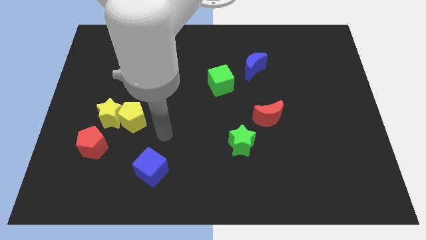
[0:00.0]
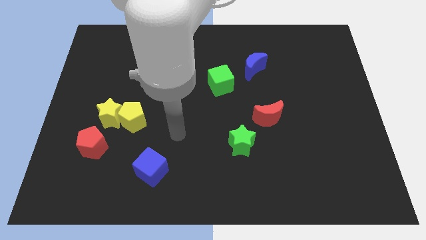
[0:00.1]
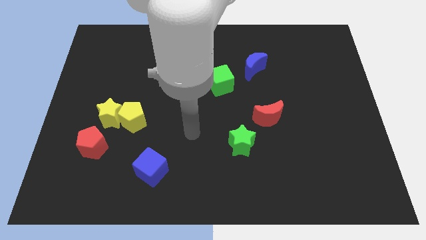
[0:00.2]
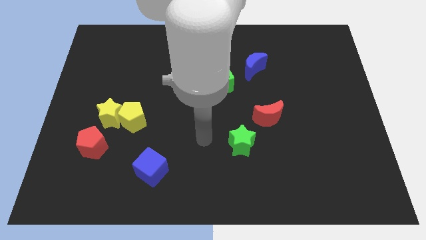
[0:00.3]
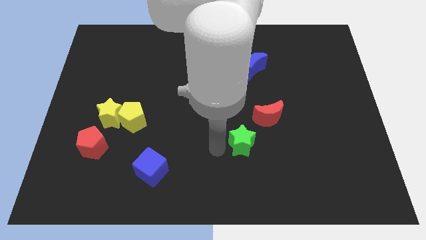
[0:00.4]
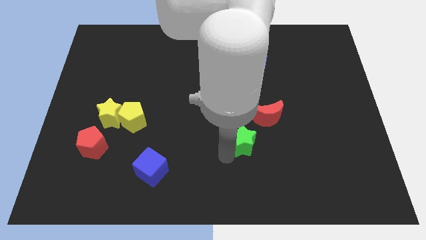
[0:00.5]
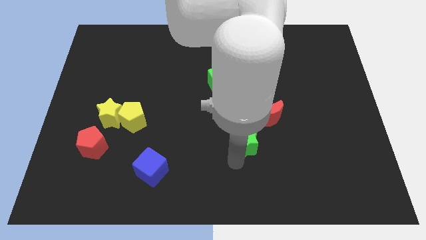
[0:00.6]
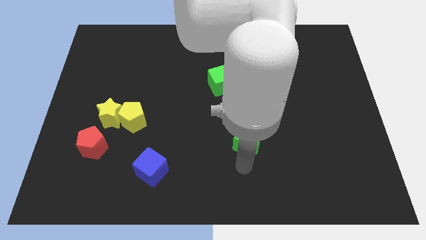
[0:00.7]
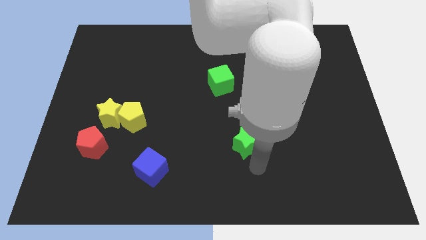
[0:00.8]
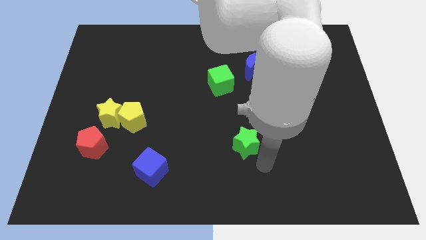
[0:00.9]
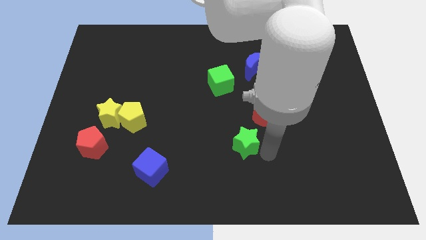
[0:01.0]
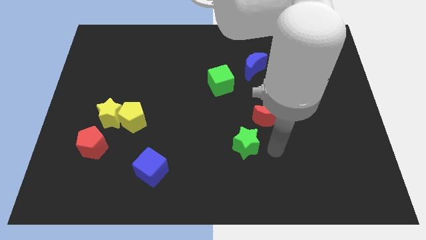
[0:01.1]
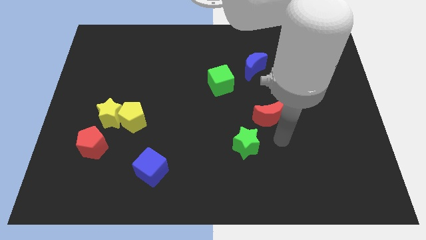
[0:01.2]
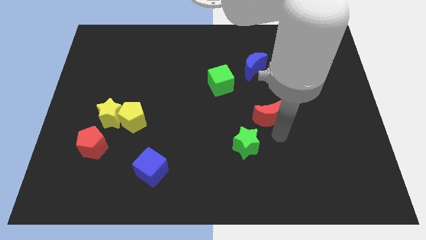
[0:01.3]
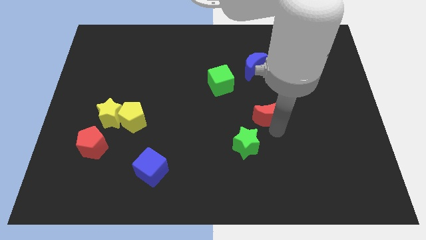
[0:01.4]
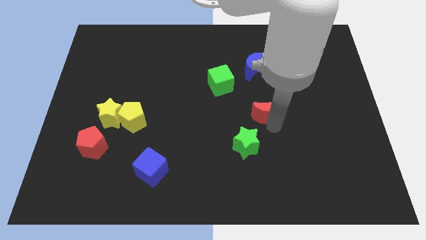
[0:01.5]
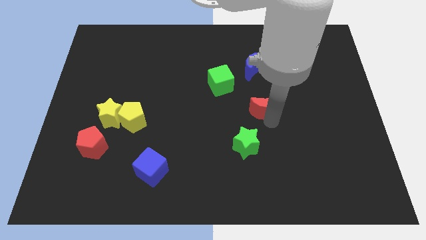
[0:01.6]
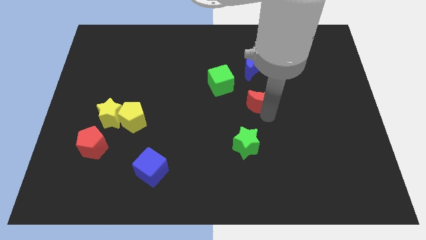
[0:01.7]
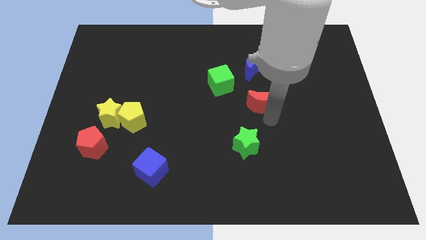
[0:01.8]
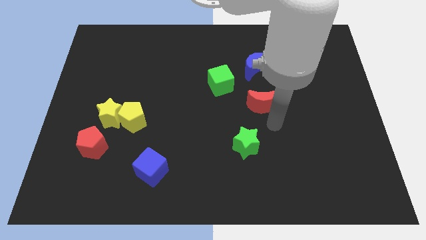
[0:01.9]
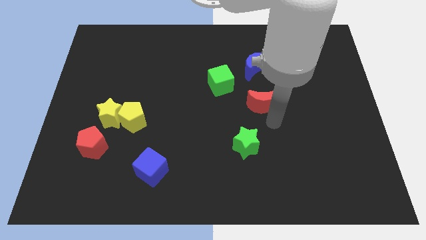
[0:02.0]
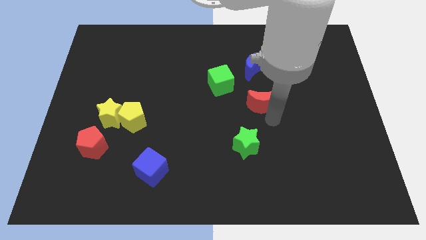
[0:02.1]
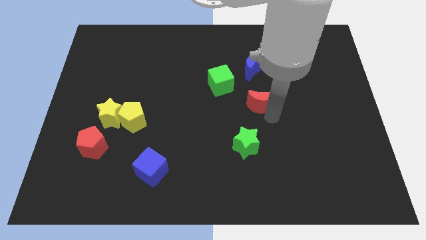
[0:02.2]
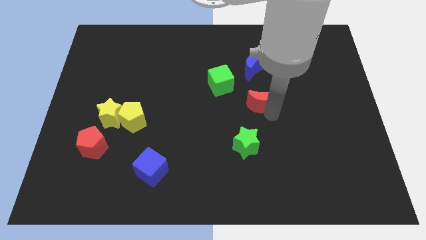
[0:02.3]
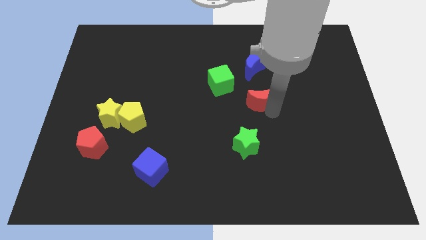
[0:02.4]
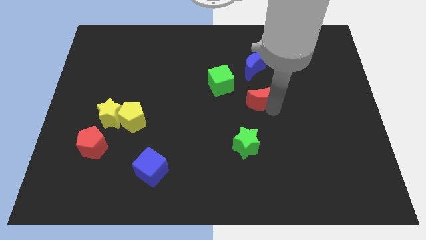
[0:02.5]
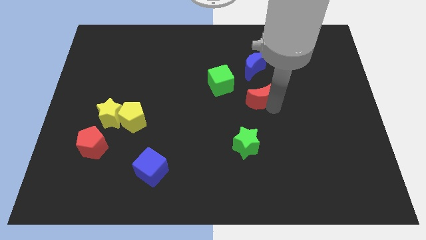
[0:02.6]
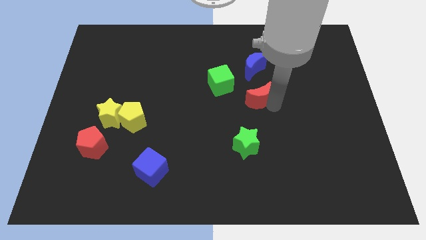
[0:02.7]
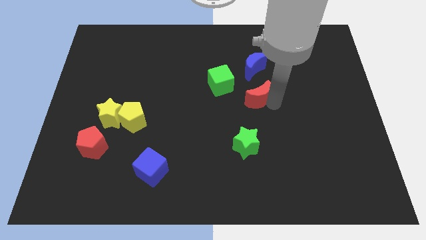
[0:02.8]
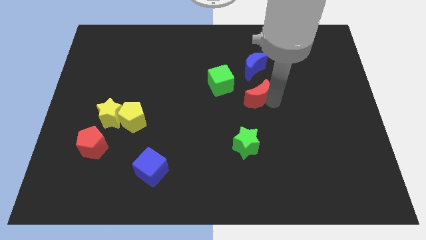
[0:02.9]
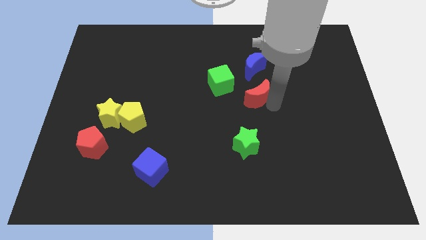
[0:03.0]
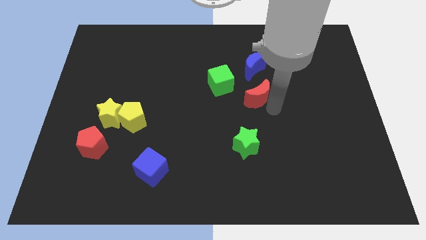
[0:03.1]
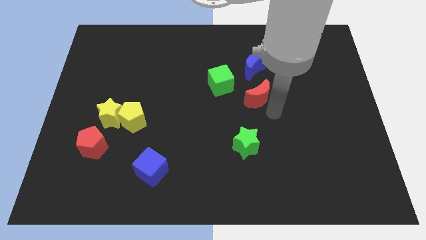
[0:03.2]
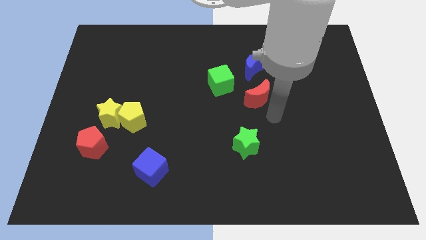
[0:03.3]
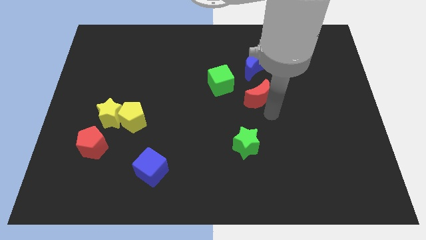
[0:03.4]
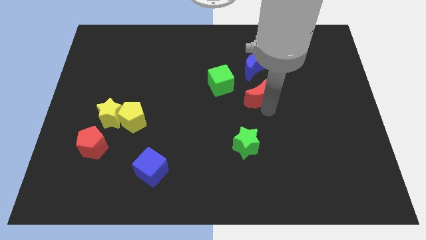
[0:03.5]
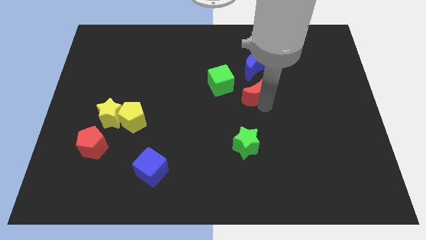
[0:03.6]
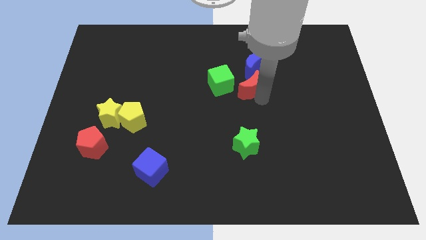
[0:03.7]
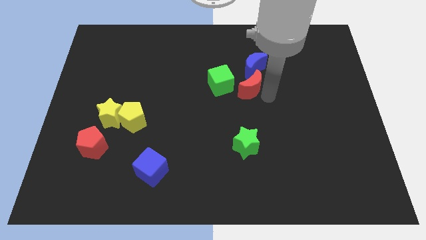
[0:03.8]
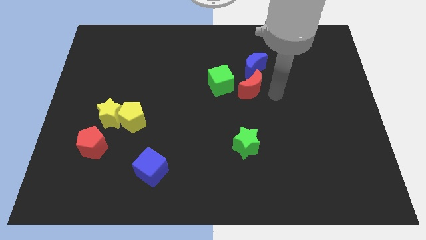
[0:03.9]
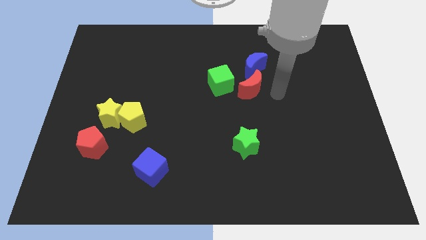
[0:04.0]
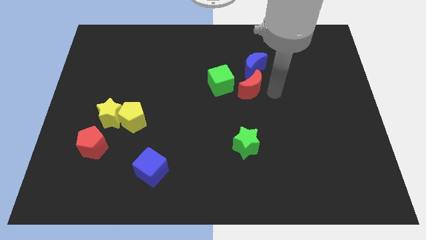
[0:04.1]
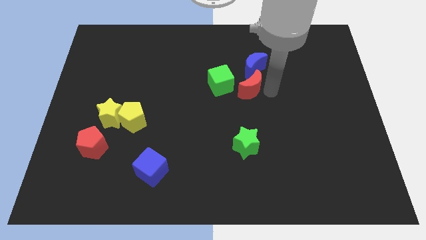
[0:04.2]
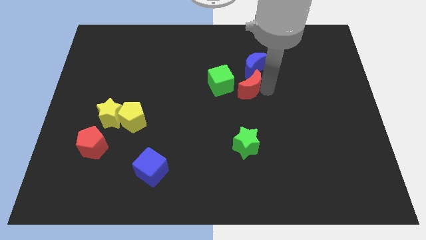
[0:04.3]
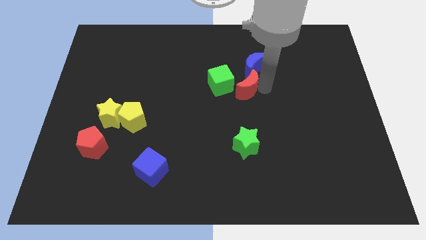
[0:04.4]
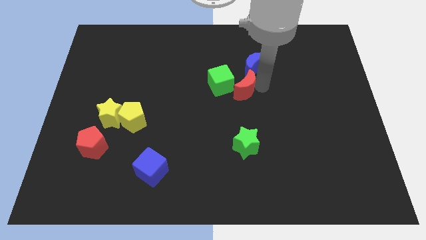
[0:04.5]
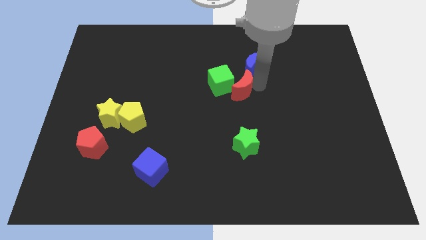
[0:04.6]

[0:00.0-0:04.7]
push the red moon to the green cube

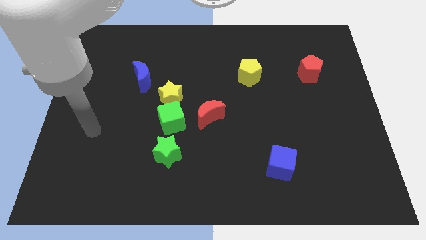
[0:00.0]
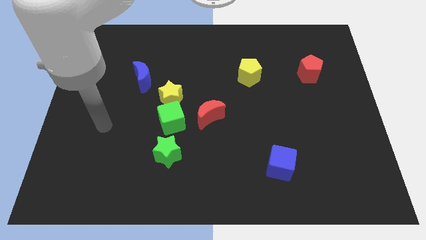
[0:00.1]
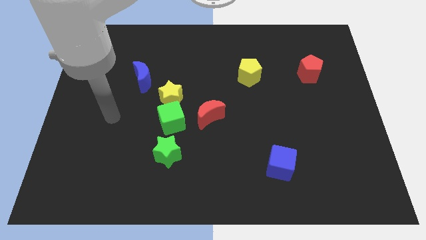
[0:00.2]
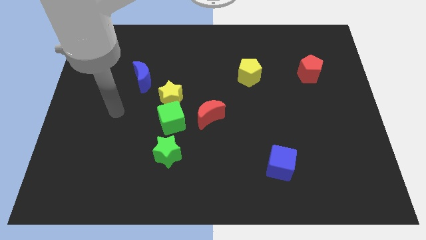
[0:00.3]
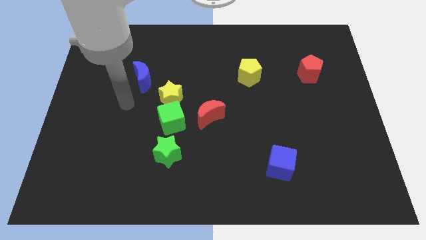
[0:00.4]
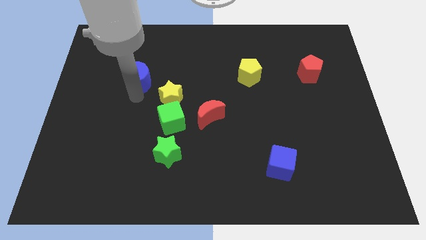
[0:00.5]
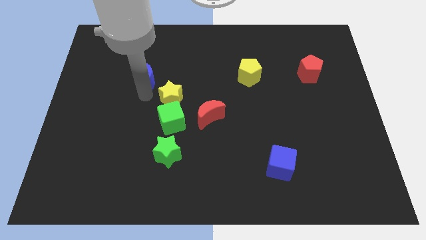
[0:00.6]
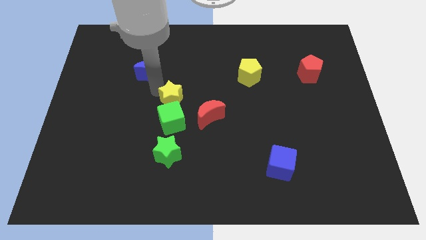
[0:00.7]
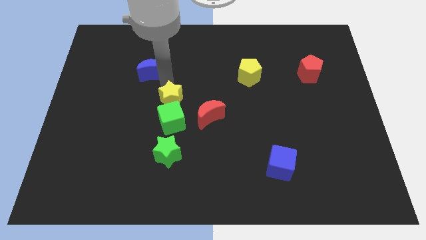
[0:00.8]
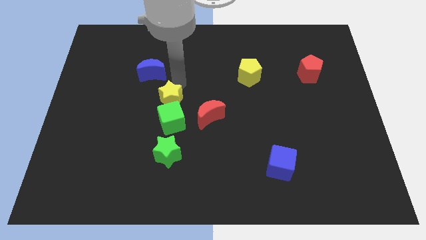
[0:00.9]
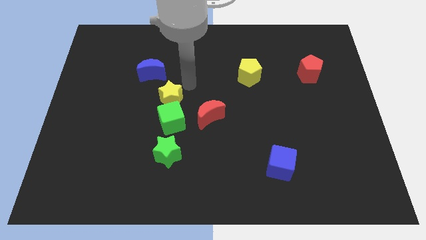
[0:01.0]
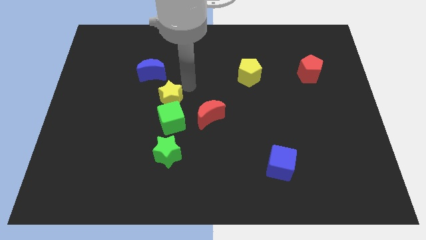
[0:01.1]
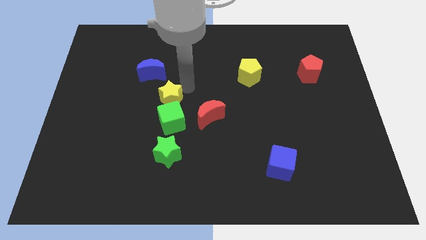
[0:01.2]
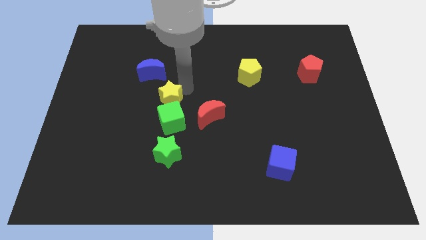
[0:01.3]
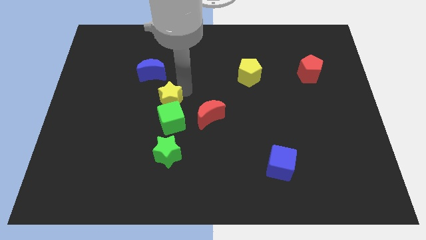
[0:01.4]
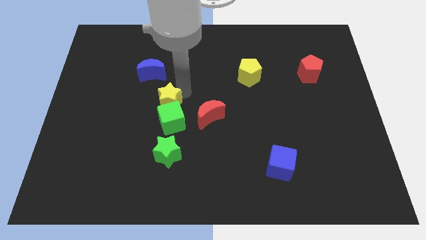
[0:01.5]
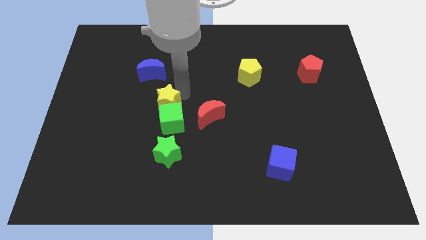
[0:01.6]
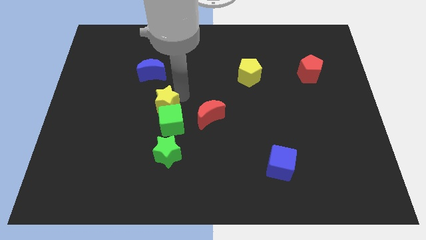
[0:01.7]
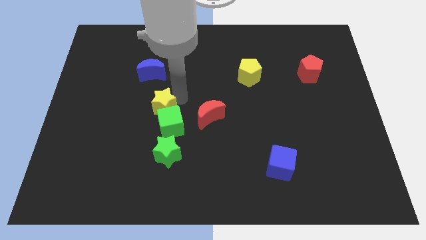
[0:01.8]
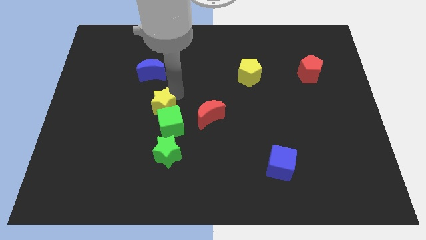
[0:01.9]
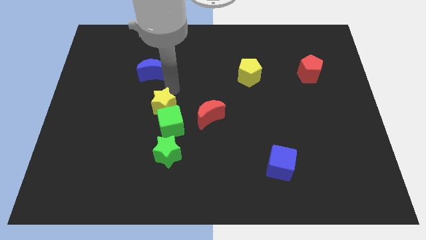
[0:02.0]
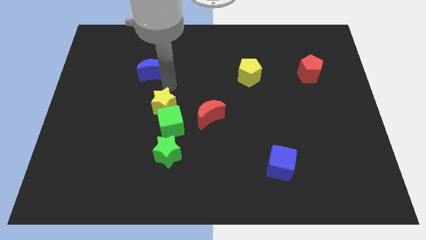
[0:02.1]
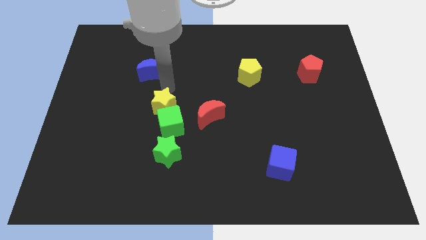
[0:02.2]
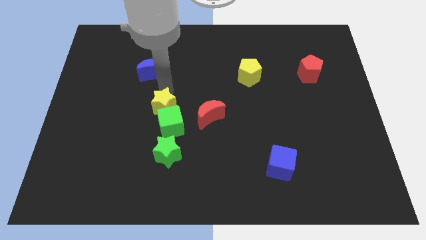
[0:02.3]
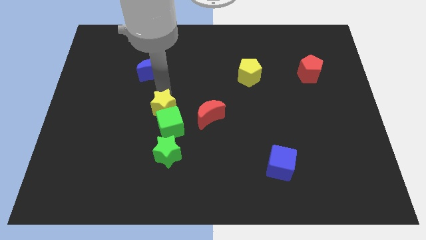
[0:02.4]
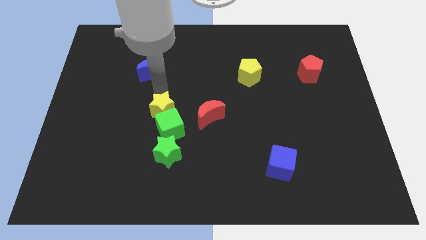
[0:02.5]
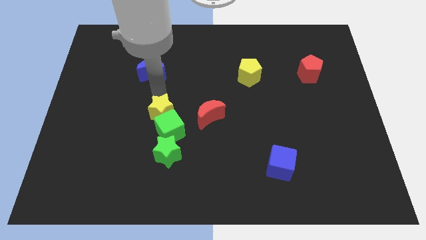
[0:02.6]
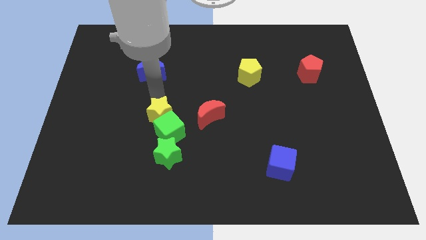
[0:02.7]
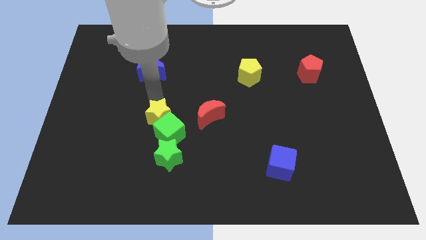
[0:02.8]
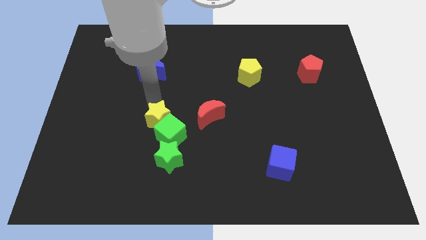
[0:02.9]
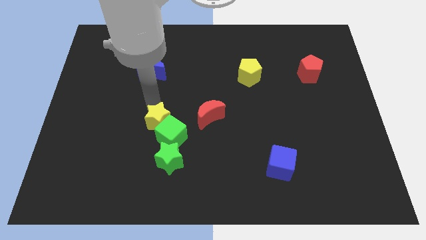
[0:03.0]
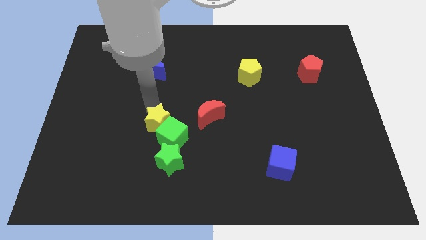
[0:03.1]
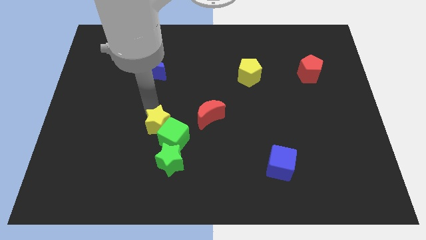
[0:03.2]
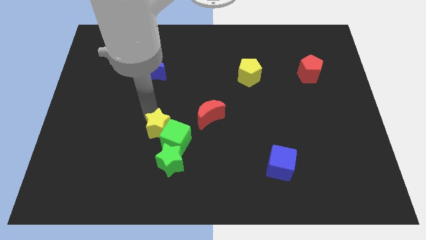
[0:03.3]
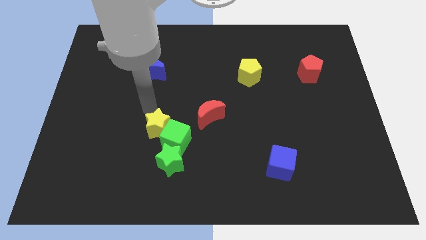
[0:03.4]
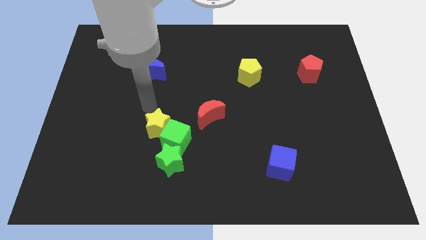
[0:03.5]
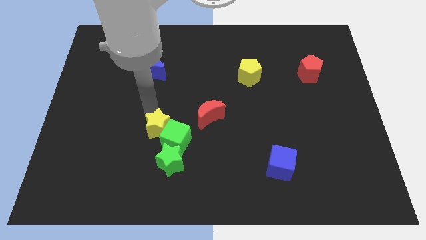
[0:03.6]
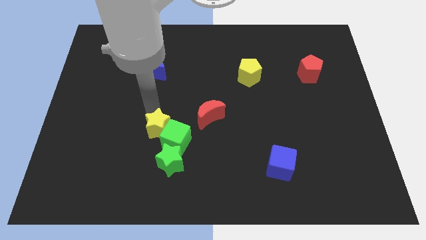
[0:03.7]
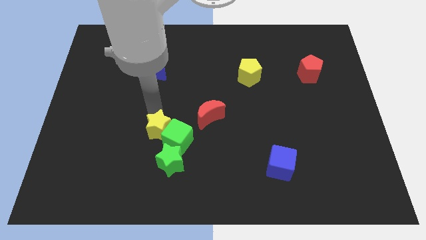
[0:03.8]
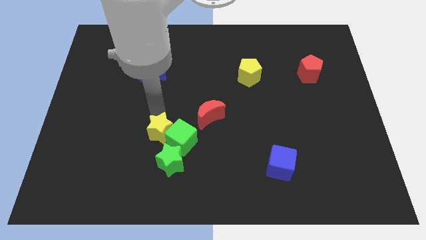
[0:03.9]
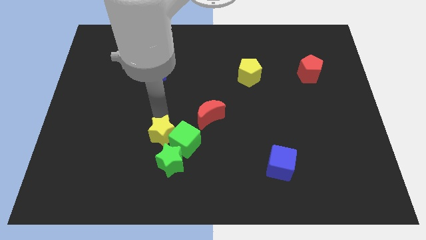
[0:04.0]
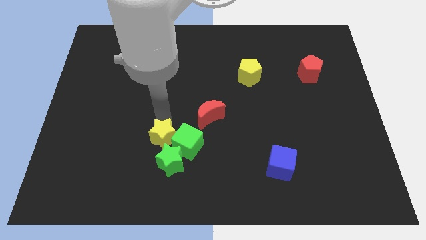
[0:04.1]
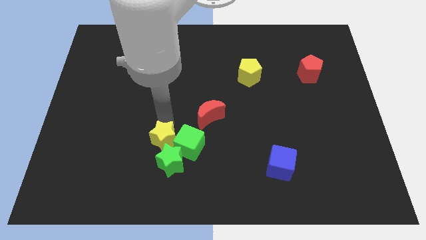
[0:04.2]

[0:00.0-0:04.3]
put the yellow star close to the green star
